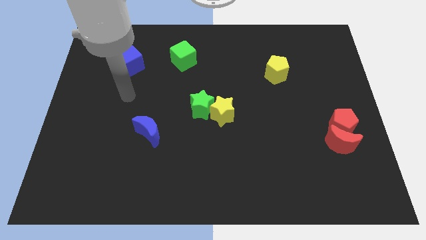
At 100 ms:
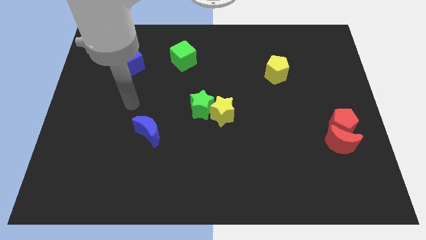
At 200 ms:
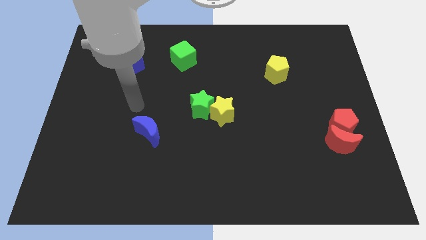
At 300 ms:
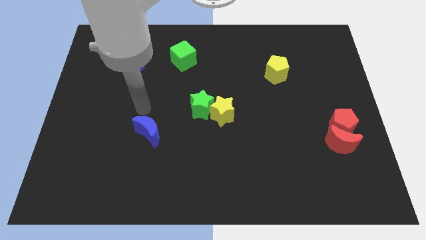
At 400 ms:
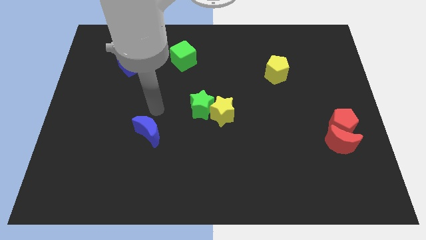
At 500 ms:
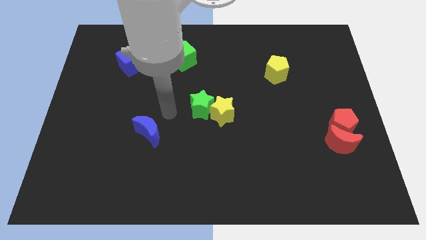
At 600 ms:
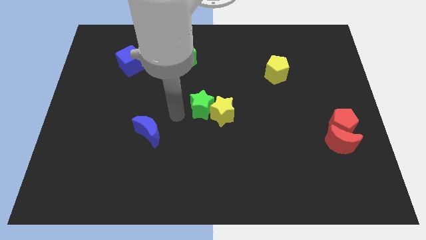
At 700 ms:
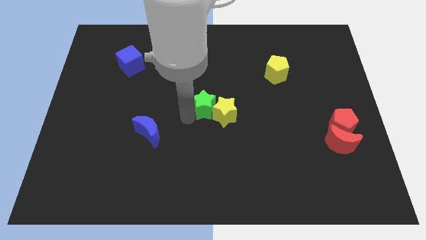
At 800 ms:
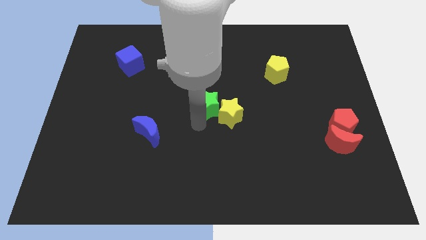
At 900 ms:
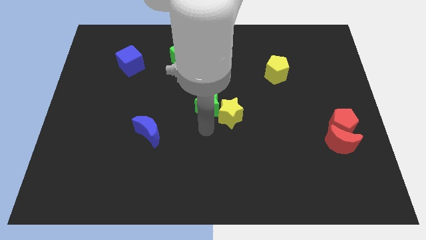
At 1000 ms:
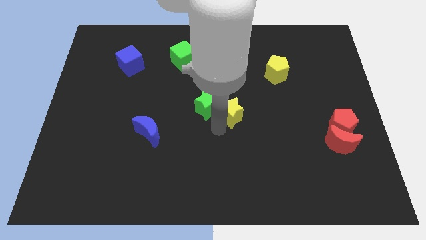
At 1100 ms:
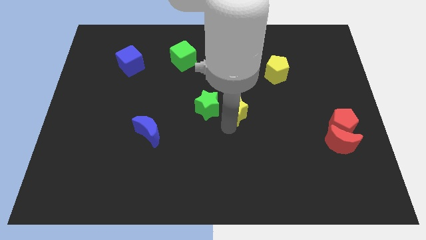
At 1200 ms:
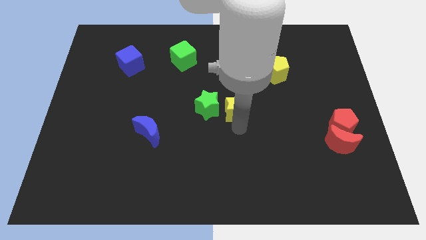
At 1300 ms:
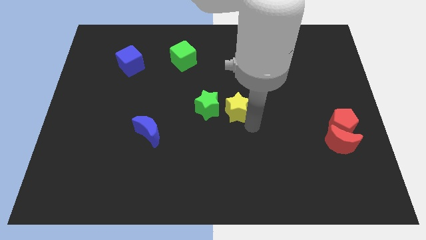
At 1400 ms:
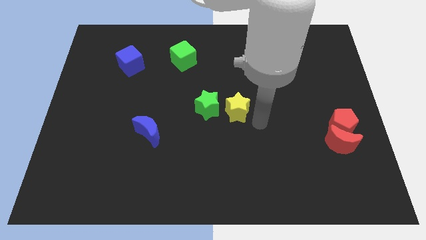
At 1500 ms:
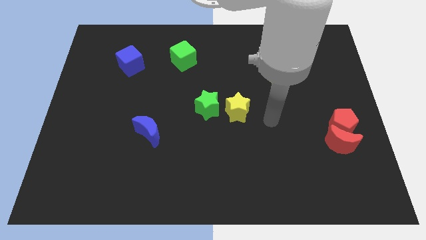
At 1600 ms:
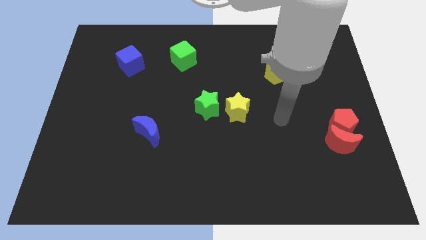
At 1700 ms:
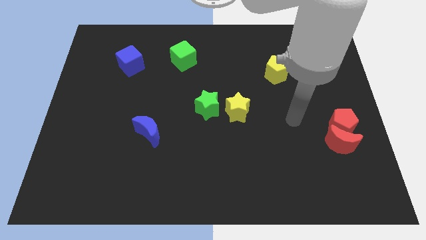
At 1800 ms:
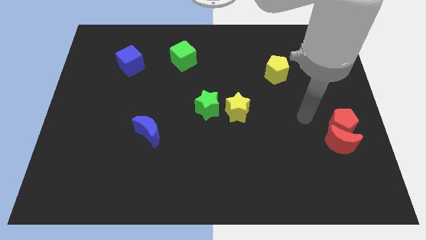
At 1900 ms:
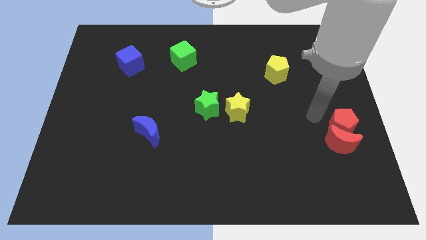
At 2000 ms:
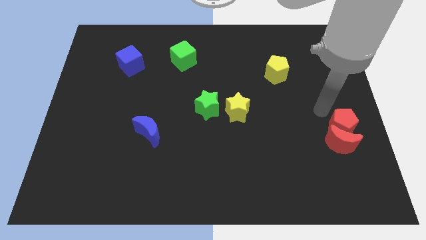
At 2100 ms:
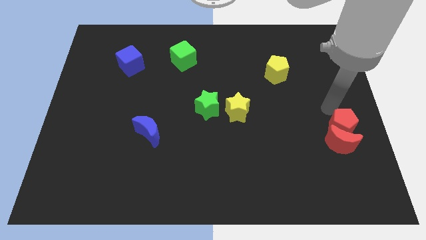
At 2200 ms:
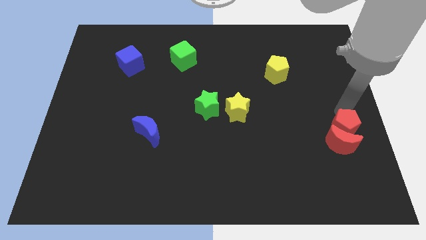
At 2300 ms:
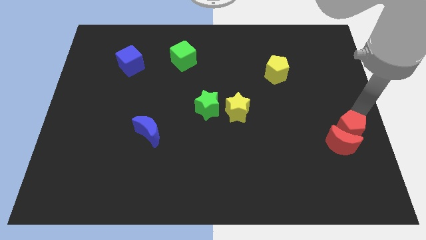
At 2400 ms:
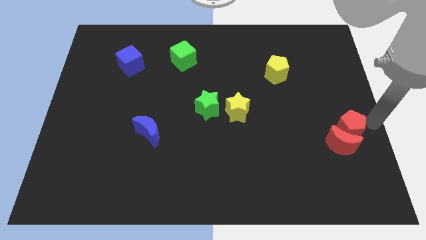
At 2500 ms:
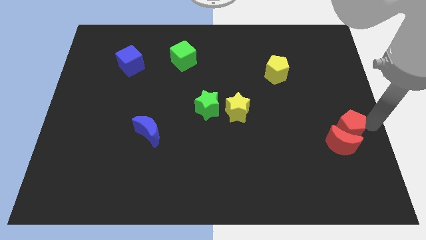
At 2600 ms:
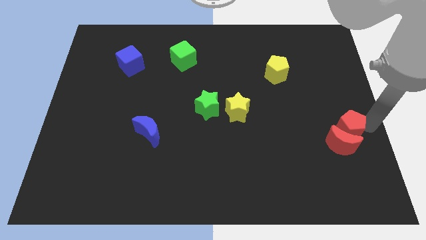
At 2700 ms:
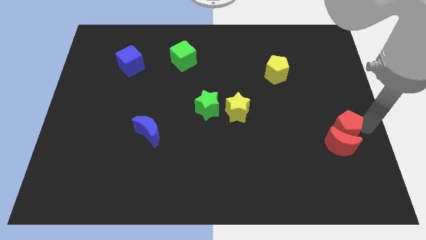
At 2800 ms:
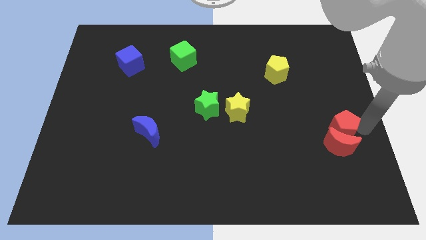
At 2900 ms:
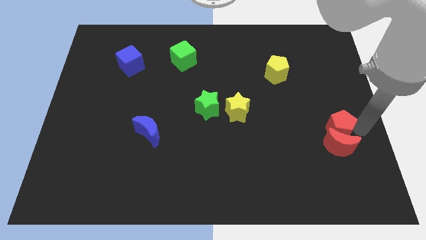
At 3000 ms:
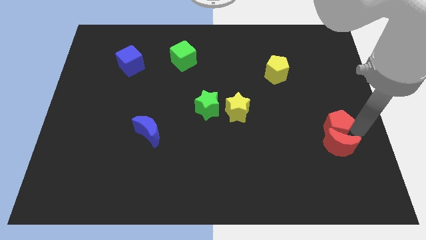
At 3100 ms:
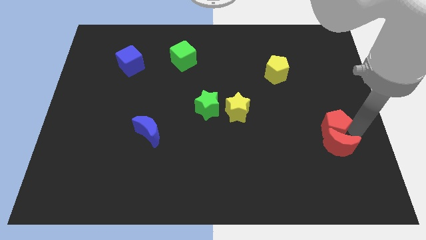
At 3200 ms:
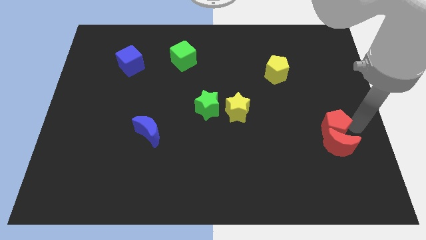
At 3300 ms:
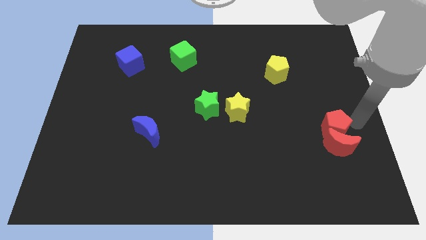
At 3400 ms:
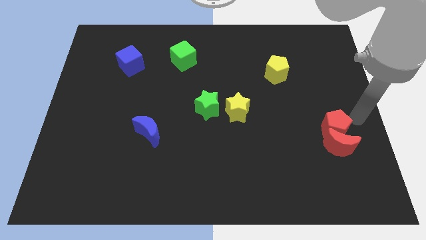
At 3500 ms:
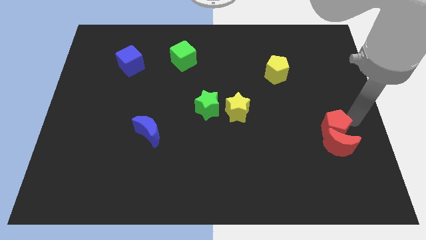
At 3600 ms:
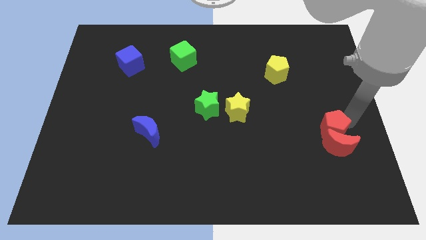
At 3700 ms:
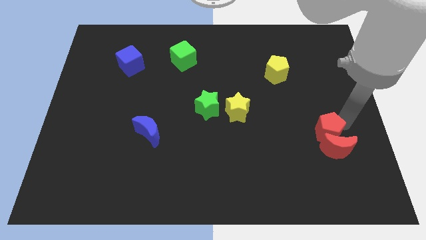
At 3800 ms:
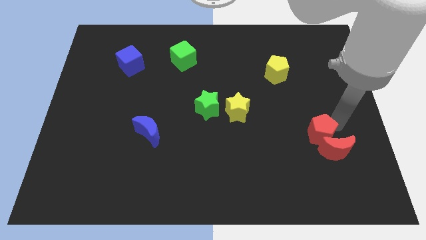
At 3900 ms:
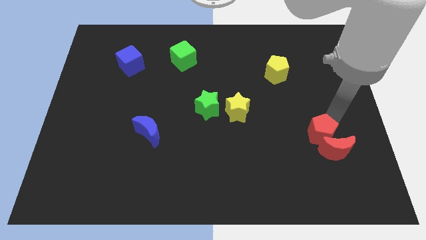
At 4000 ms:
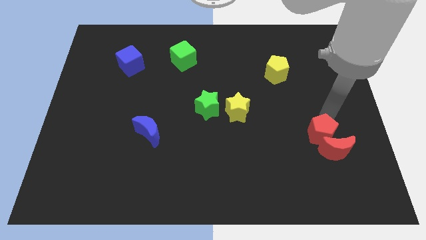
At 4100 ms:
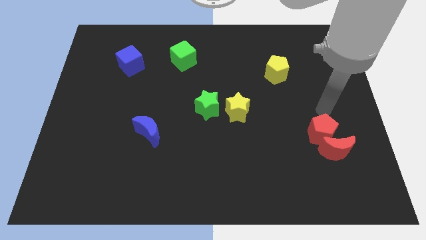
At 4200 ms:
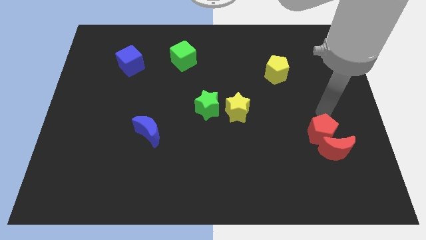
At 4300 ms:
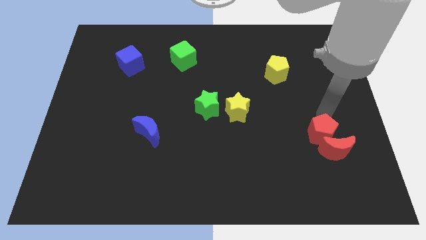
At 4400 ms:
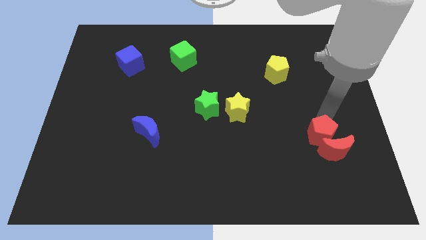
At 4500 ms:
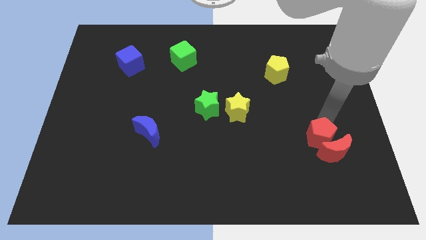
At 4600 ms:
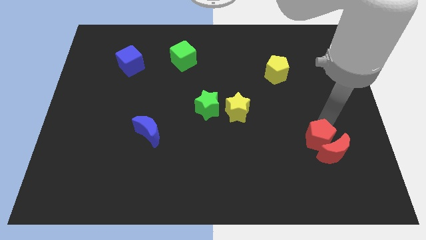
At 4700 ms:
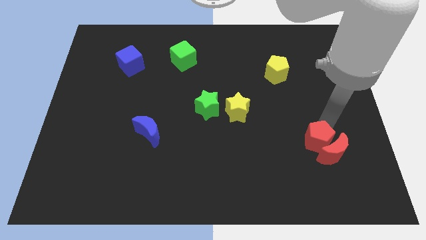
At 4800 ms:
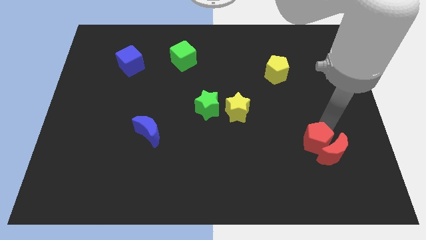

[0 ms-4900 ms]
slide the red pentagon downwards and then to the left somewhat

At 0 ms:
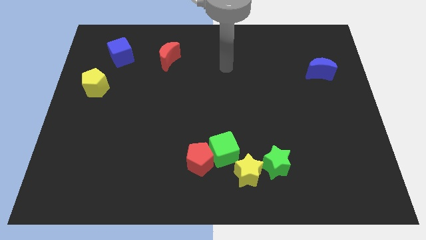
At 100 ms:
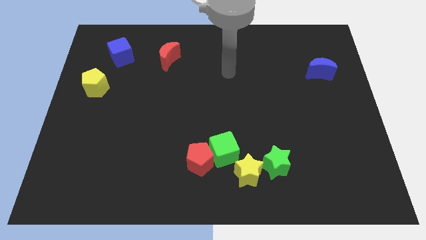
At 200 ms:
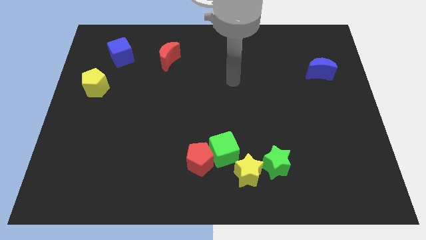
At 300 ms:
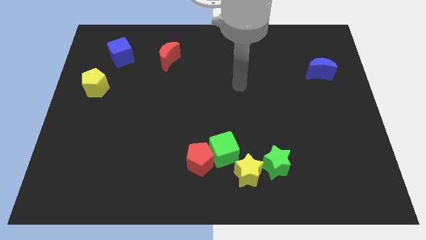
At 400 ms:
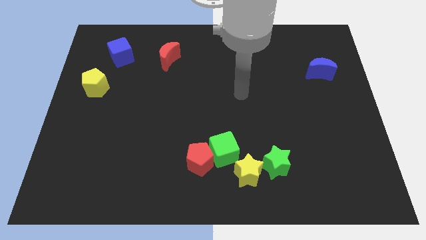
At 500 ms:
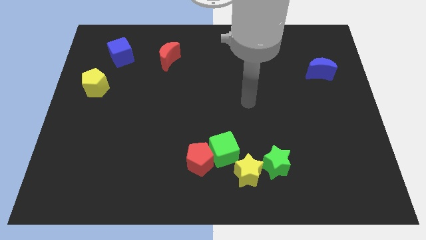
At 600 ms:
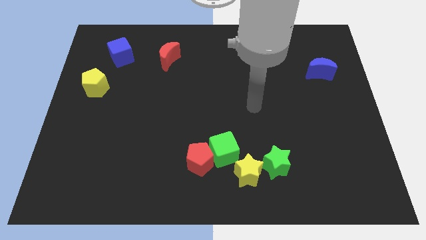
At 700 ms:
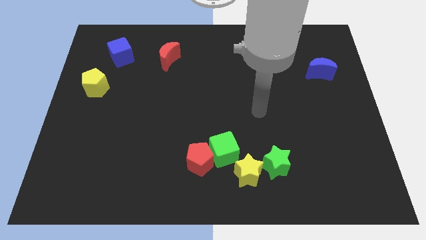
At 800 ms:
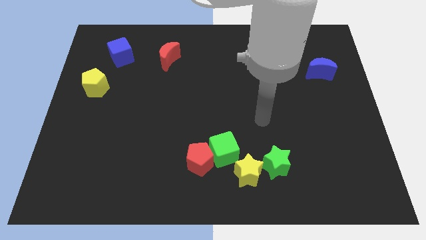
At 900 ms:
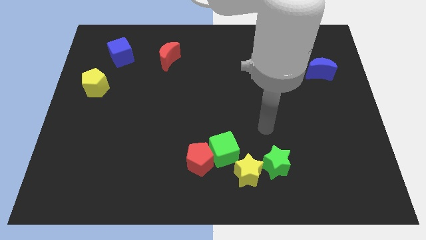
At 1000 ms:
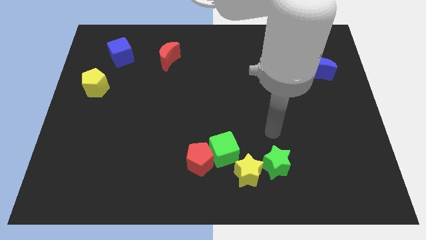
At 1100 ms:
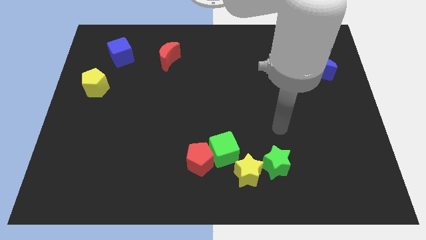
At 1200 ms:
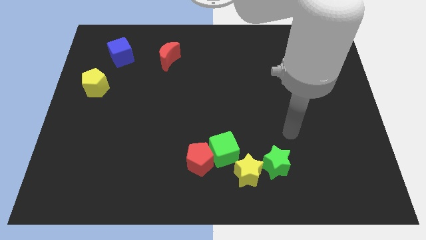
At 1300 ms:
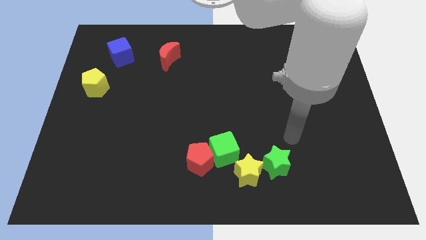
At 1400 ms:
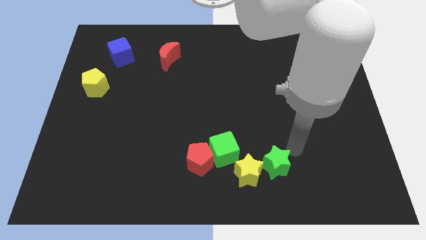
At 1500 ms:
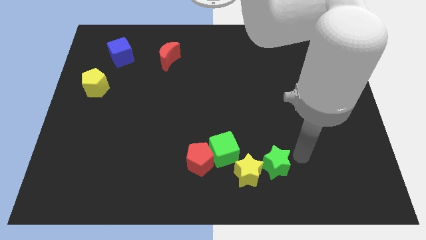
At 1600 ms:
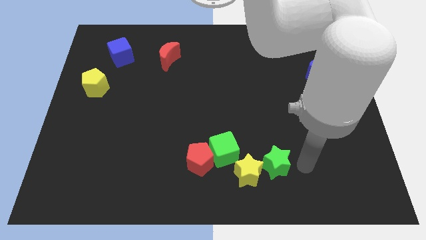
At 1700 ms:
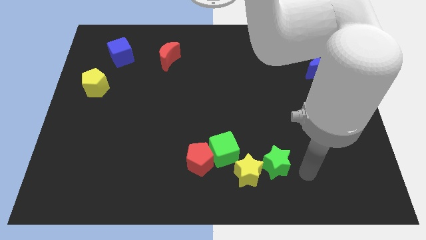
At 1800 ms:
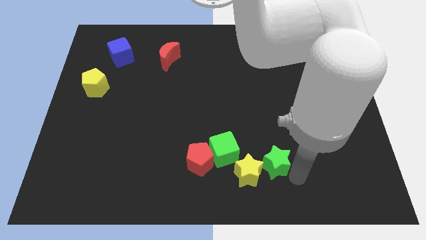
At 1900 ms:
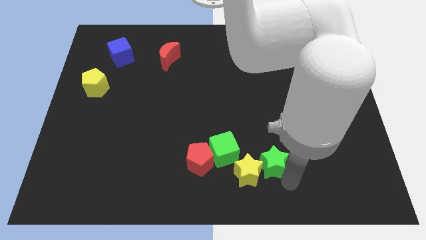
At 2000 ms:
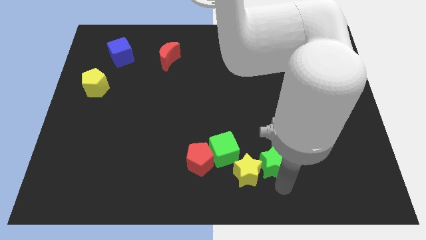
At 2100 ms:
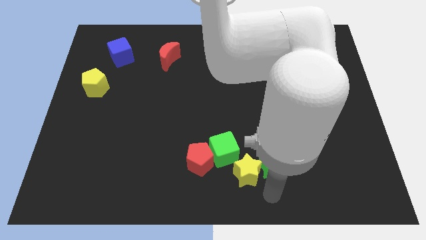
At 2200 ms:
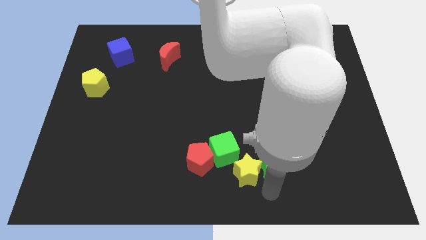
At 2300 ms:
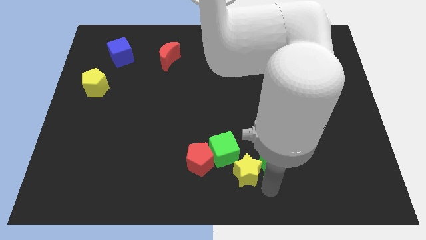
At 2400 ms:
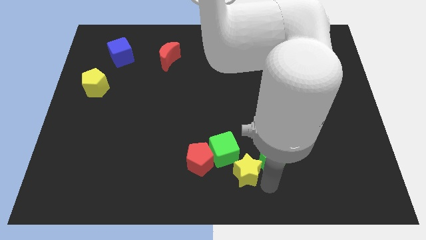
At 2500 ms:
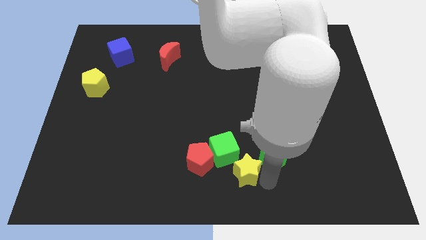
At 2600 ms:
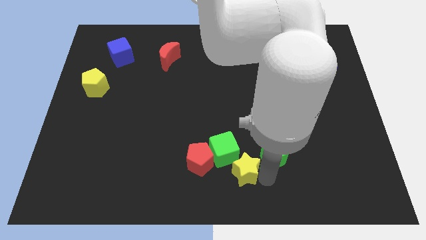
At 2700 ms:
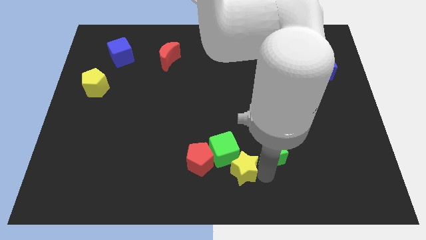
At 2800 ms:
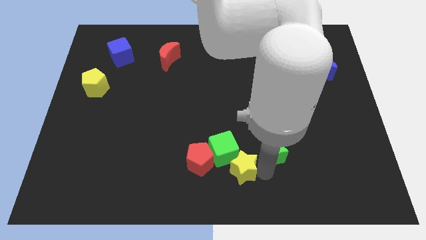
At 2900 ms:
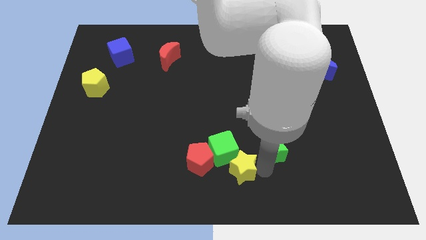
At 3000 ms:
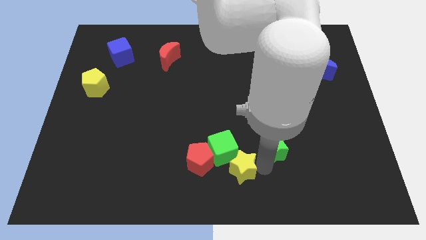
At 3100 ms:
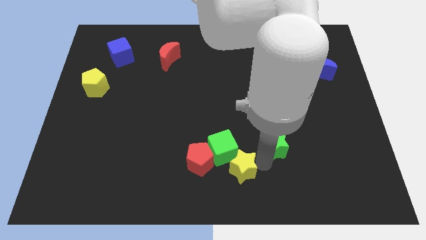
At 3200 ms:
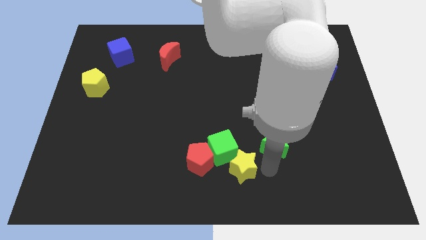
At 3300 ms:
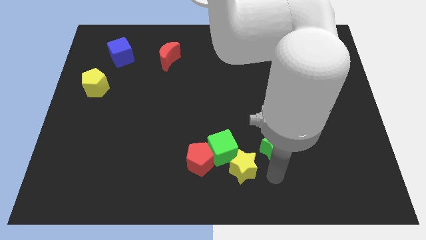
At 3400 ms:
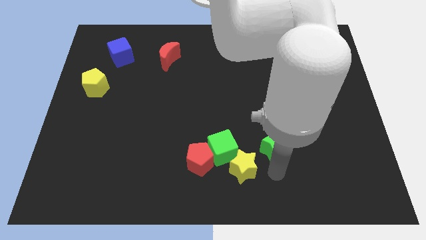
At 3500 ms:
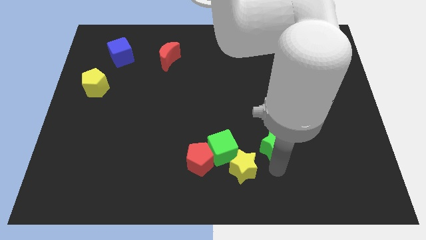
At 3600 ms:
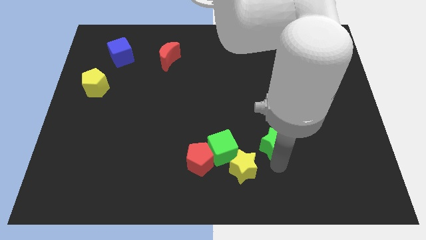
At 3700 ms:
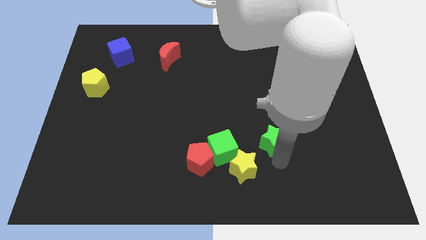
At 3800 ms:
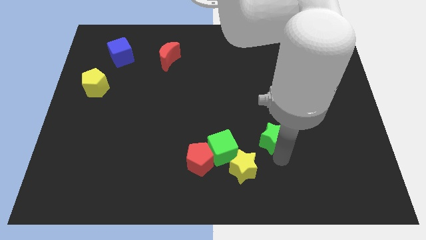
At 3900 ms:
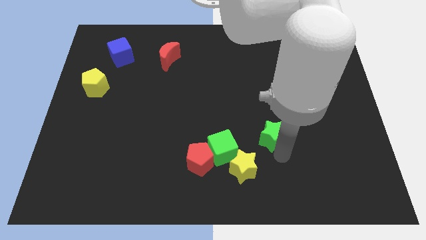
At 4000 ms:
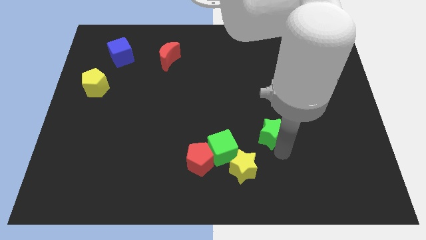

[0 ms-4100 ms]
slightly slide the green star upwards
